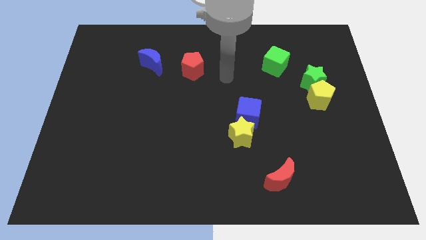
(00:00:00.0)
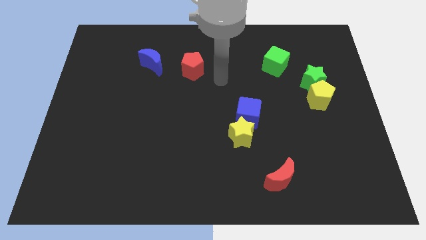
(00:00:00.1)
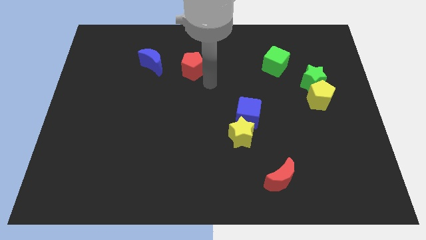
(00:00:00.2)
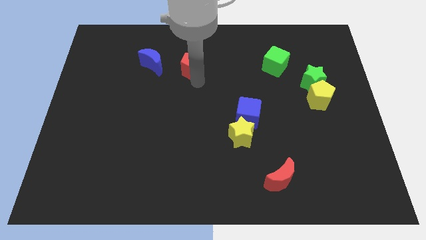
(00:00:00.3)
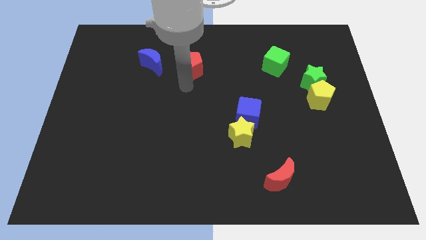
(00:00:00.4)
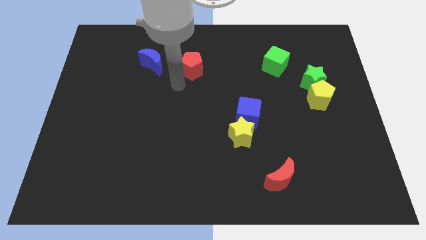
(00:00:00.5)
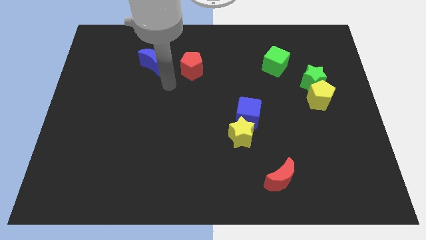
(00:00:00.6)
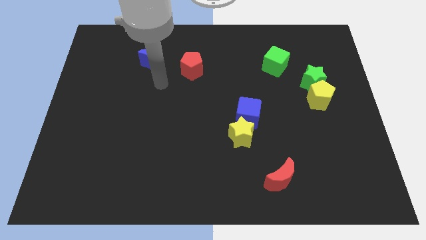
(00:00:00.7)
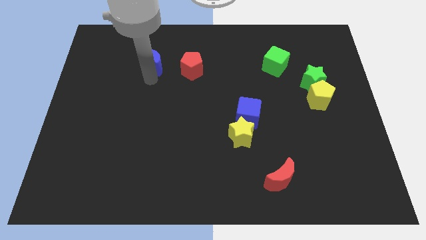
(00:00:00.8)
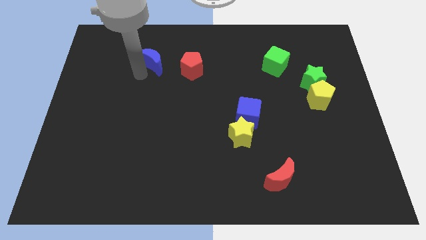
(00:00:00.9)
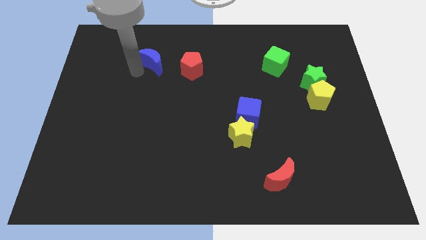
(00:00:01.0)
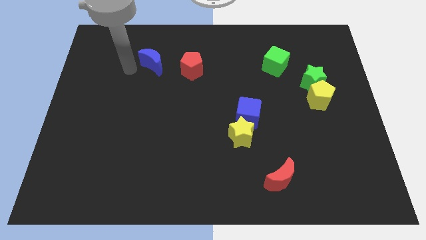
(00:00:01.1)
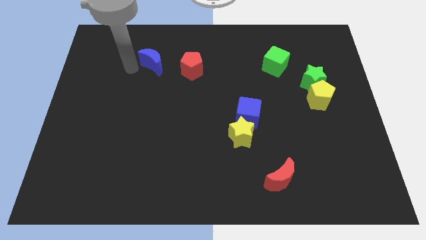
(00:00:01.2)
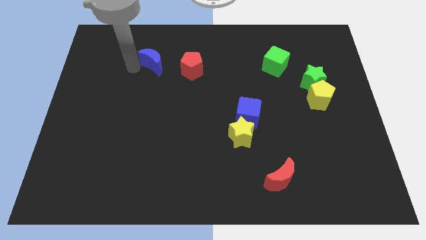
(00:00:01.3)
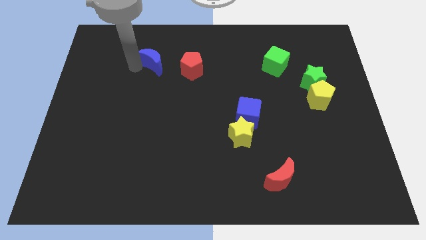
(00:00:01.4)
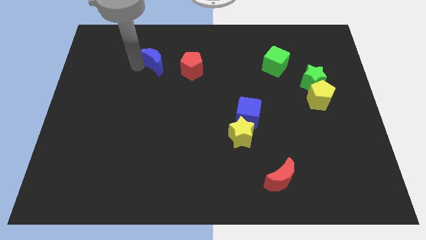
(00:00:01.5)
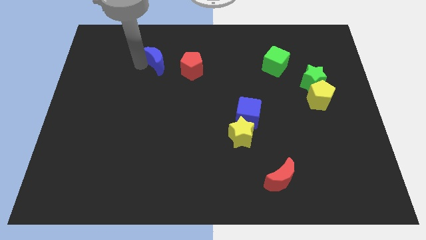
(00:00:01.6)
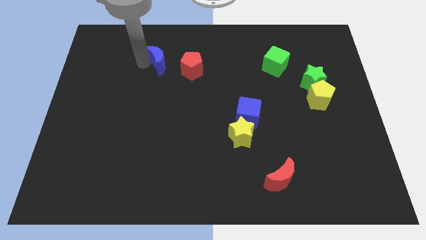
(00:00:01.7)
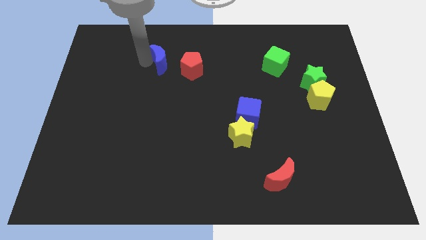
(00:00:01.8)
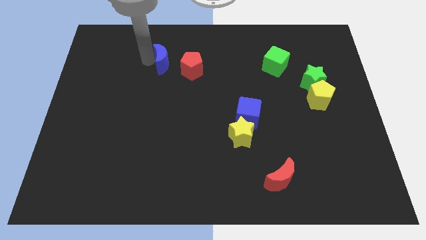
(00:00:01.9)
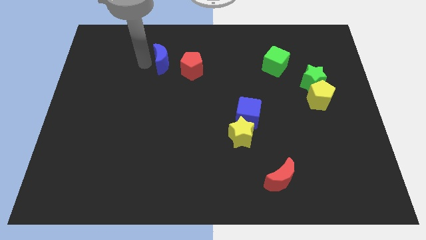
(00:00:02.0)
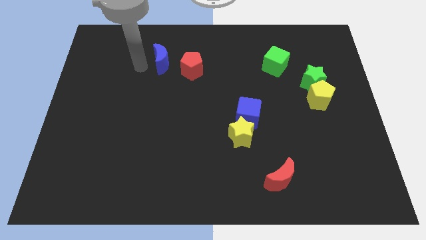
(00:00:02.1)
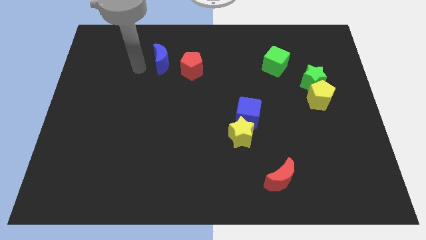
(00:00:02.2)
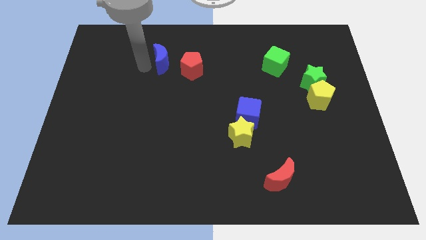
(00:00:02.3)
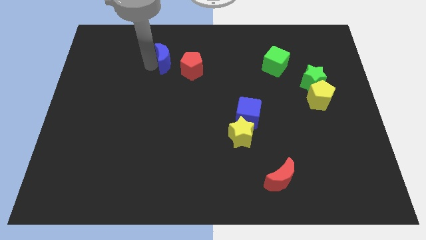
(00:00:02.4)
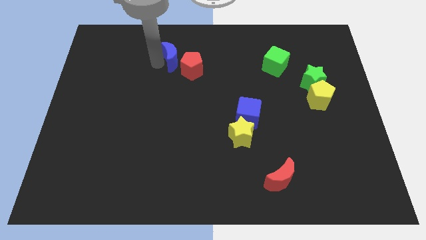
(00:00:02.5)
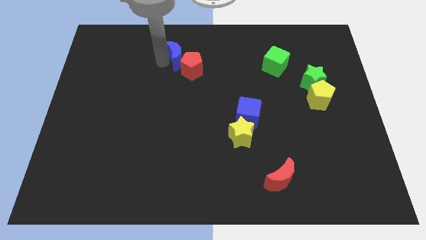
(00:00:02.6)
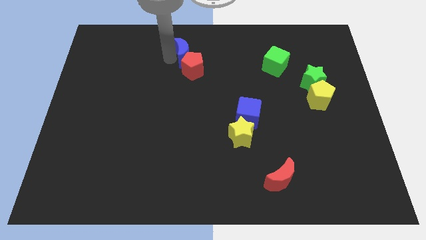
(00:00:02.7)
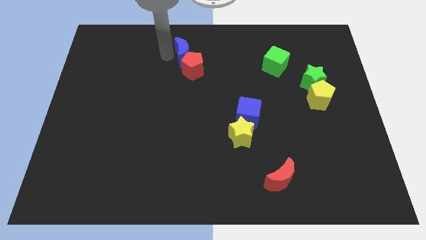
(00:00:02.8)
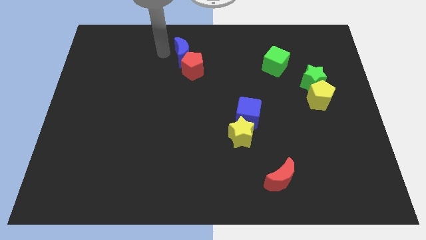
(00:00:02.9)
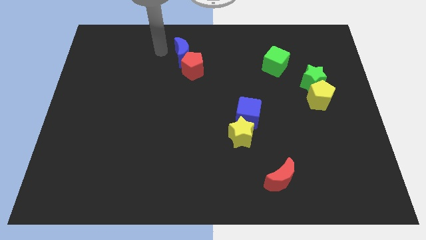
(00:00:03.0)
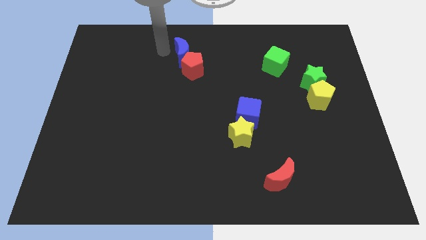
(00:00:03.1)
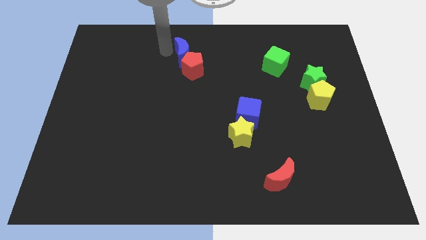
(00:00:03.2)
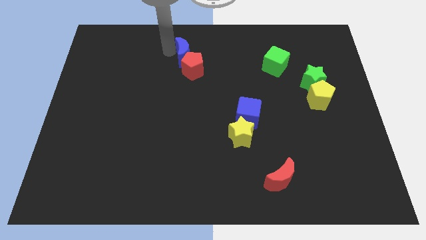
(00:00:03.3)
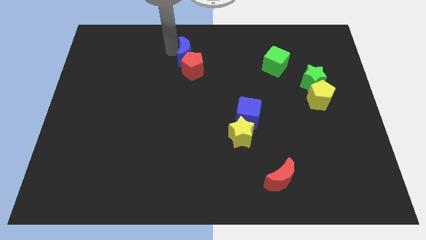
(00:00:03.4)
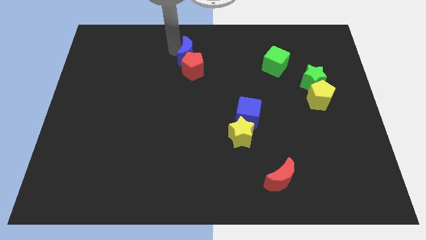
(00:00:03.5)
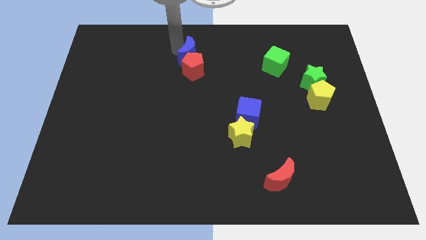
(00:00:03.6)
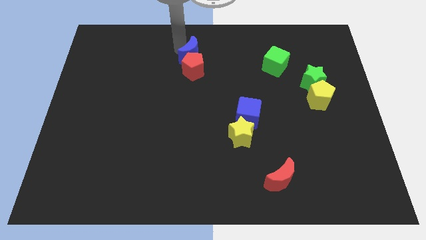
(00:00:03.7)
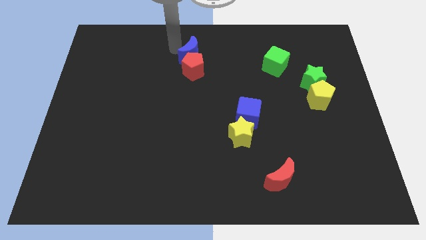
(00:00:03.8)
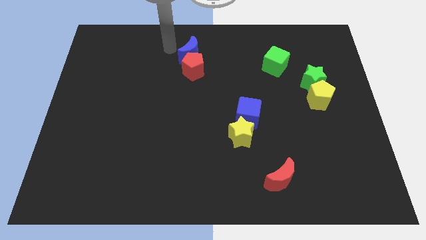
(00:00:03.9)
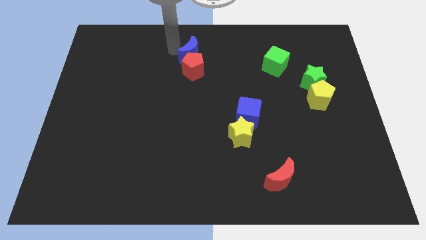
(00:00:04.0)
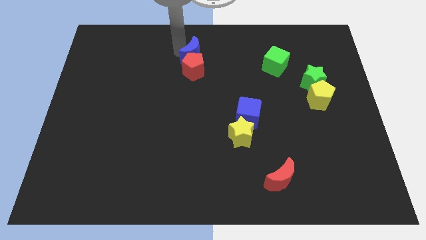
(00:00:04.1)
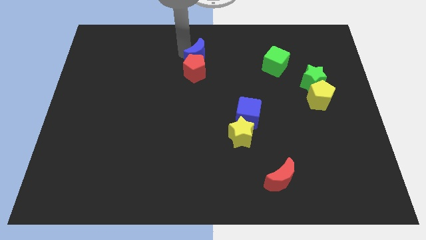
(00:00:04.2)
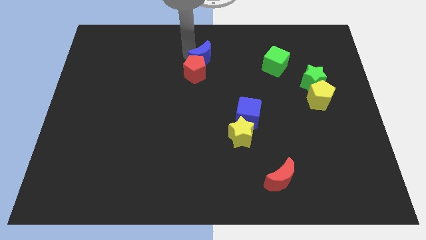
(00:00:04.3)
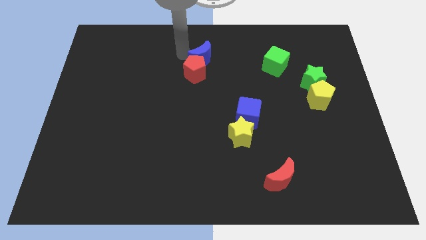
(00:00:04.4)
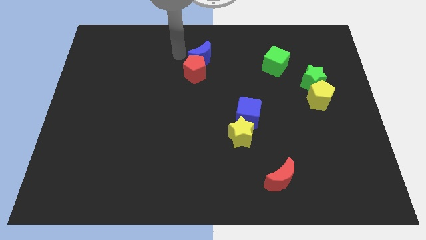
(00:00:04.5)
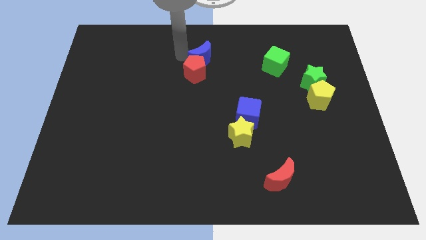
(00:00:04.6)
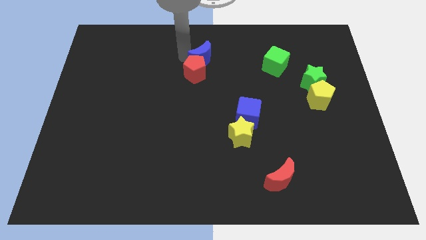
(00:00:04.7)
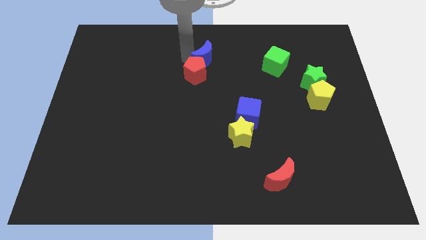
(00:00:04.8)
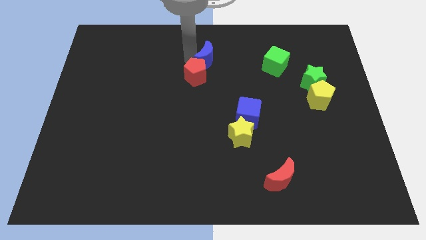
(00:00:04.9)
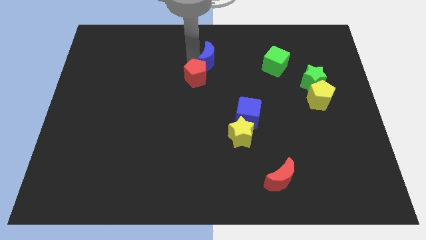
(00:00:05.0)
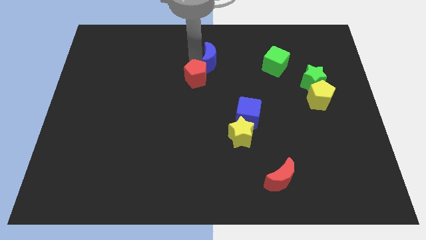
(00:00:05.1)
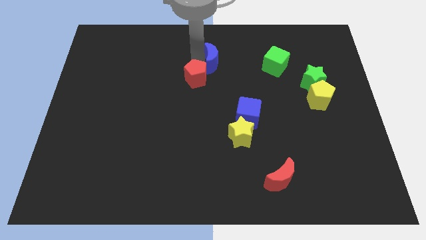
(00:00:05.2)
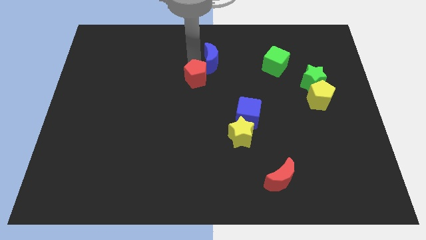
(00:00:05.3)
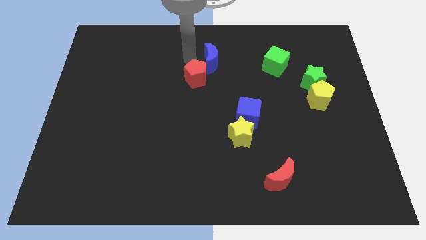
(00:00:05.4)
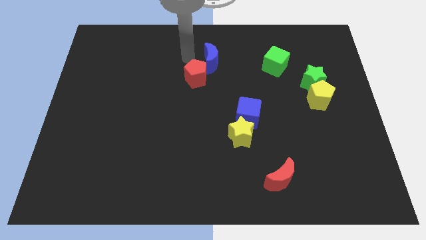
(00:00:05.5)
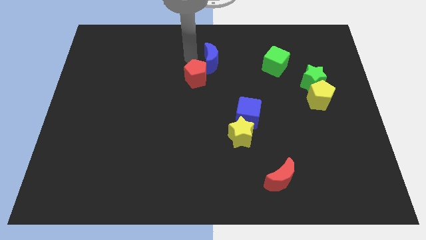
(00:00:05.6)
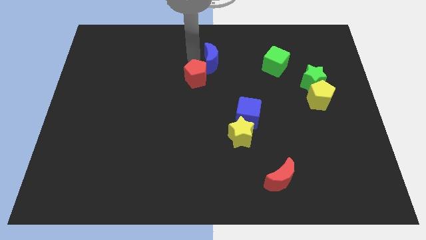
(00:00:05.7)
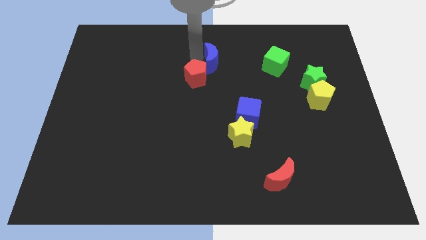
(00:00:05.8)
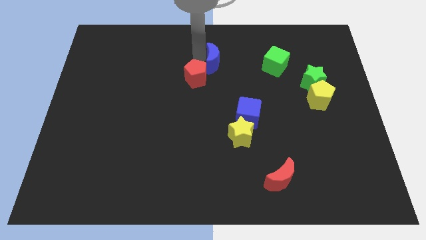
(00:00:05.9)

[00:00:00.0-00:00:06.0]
move the blue moon just left of the green cube

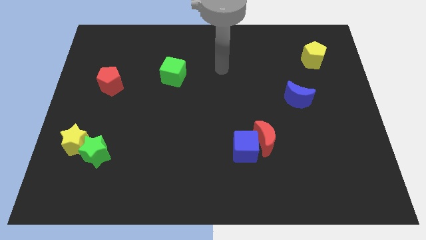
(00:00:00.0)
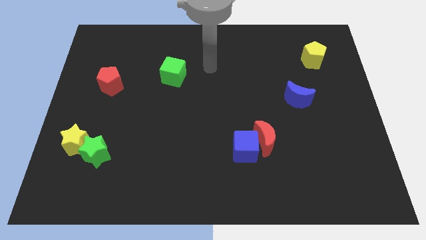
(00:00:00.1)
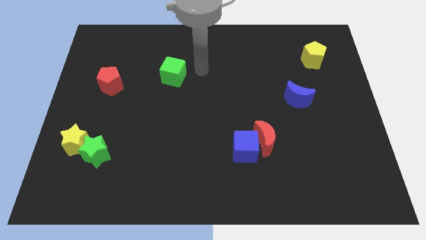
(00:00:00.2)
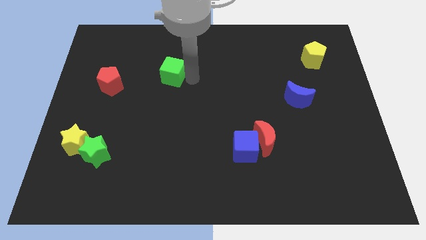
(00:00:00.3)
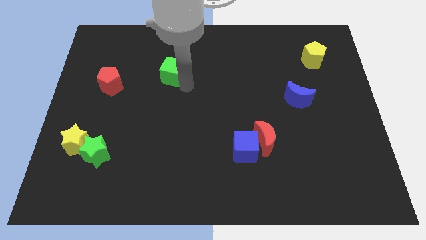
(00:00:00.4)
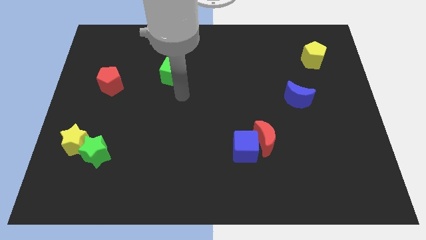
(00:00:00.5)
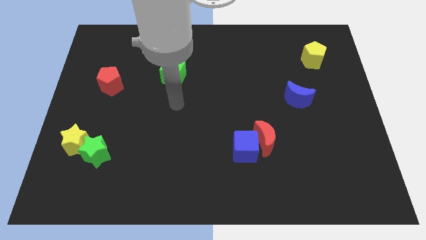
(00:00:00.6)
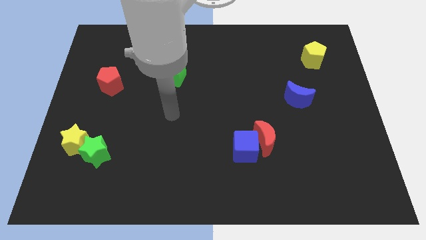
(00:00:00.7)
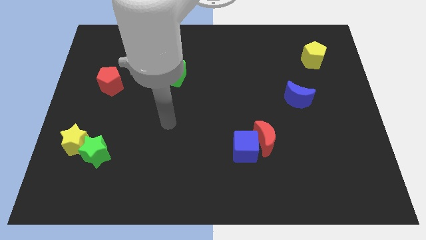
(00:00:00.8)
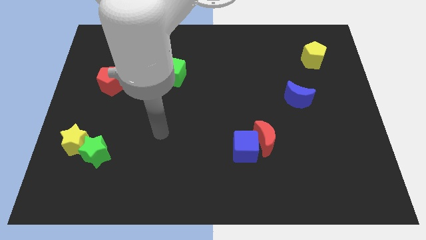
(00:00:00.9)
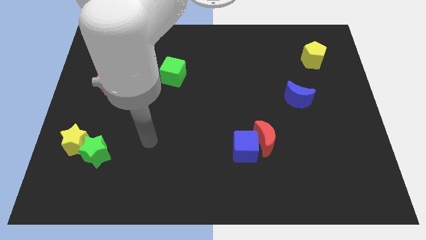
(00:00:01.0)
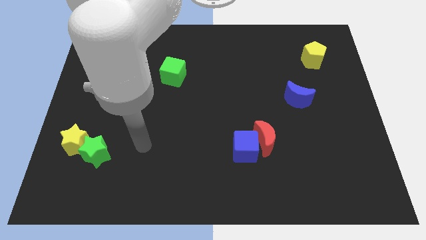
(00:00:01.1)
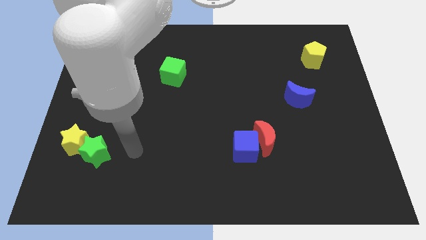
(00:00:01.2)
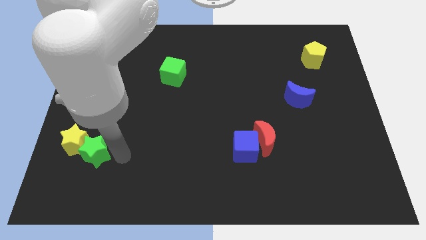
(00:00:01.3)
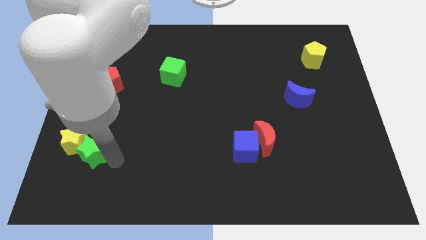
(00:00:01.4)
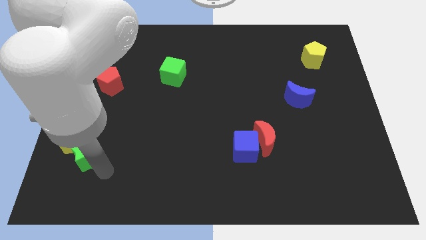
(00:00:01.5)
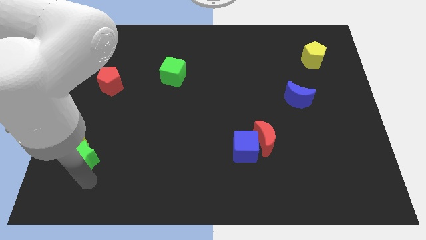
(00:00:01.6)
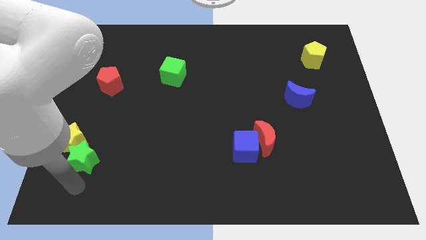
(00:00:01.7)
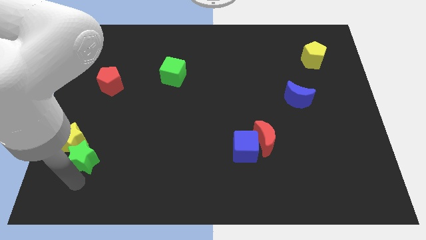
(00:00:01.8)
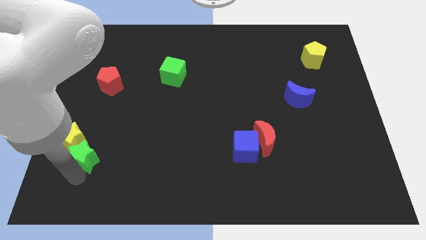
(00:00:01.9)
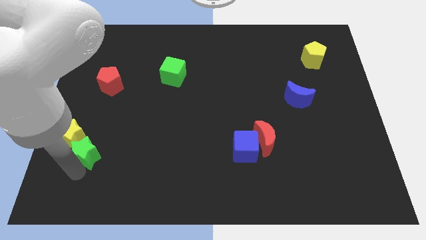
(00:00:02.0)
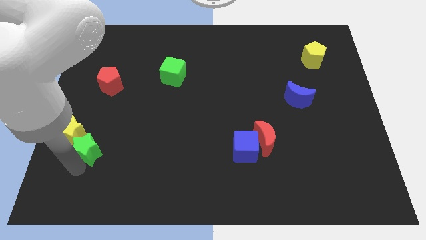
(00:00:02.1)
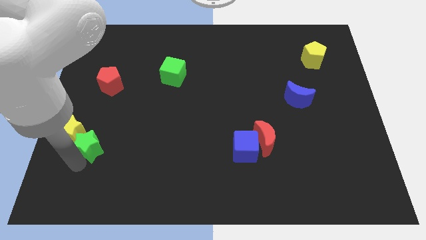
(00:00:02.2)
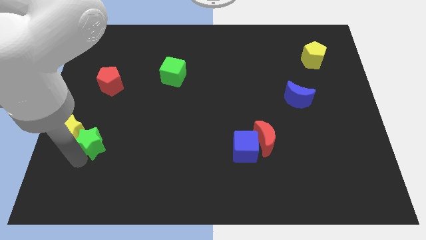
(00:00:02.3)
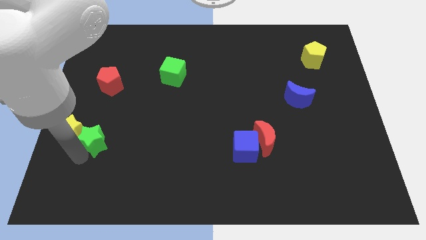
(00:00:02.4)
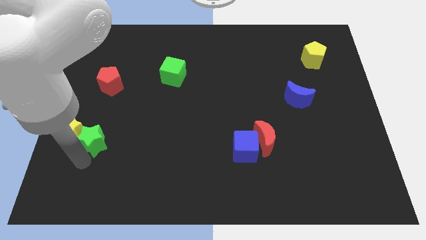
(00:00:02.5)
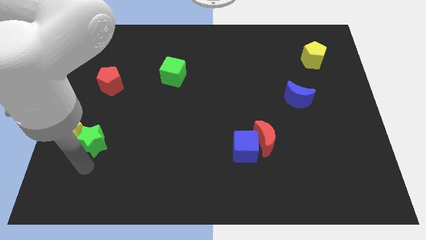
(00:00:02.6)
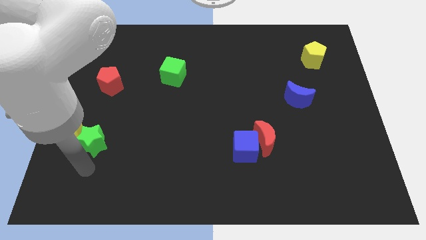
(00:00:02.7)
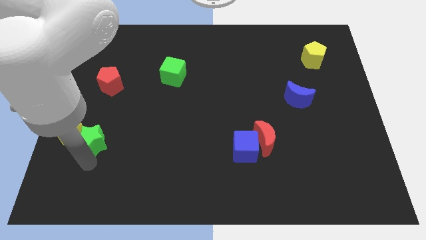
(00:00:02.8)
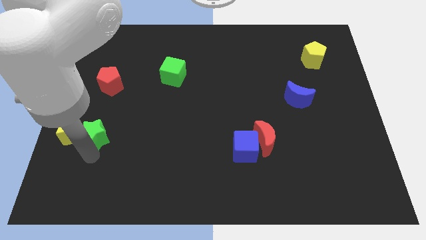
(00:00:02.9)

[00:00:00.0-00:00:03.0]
put the green star to the bottom of the red pentagon
